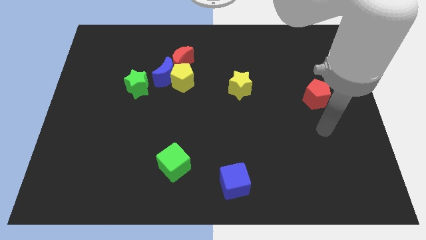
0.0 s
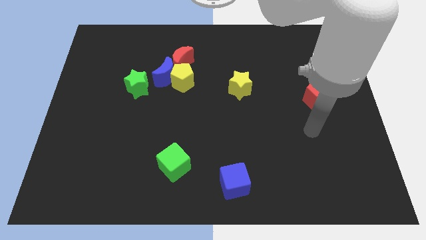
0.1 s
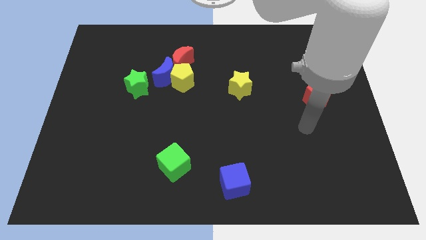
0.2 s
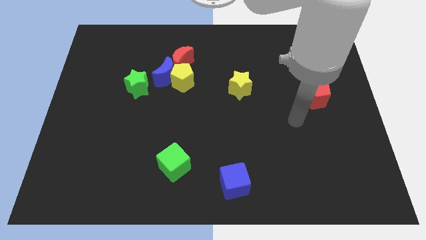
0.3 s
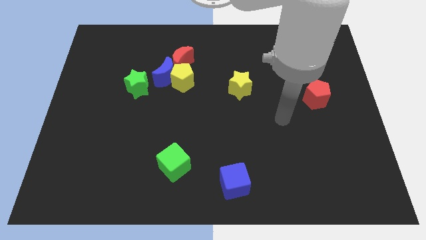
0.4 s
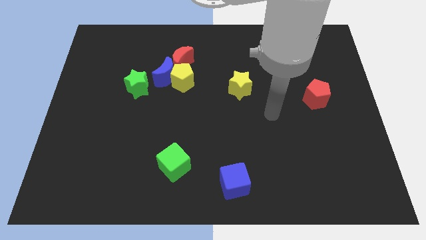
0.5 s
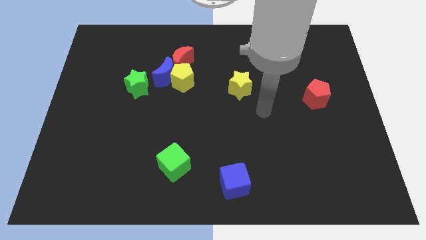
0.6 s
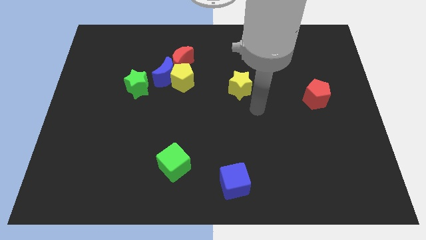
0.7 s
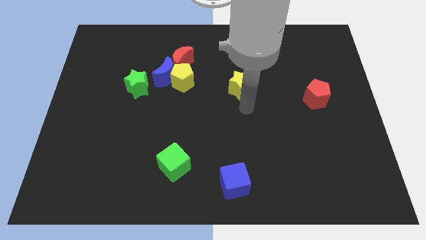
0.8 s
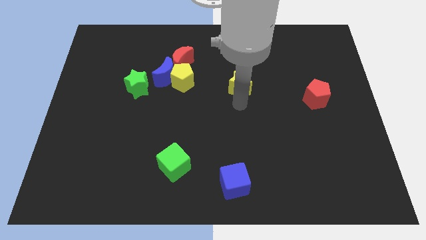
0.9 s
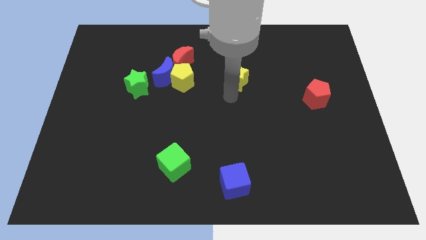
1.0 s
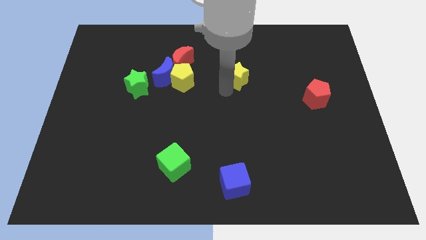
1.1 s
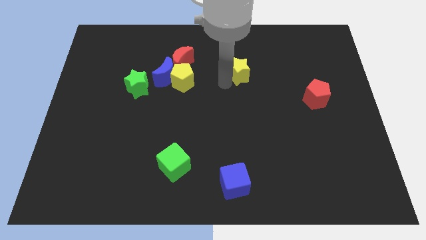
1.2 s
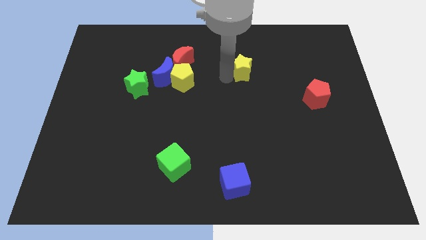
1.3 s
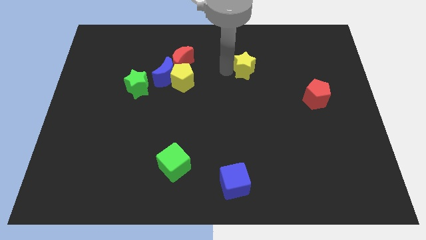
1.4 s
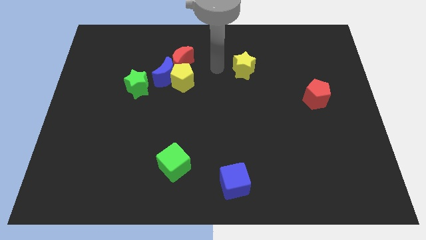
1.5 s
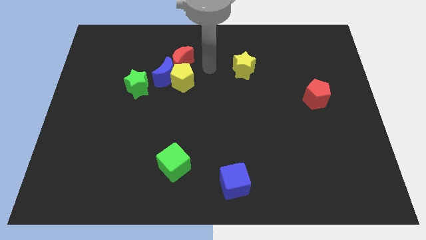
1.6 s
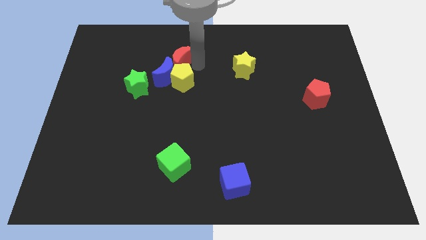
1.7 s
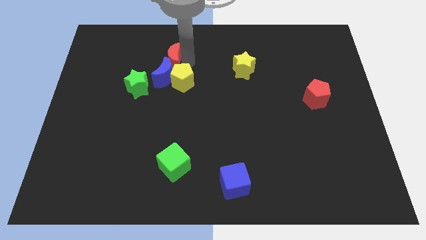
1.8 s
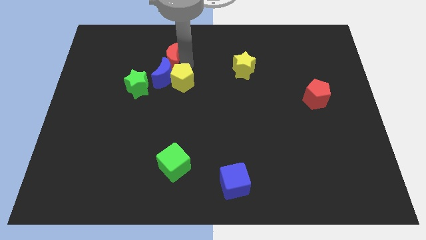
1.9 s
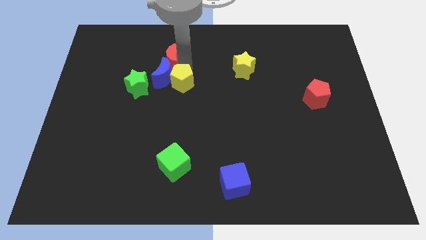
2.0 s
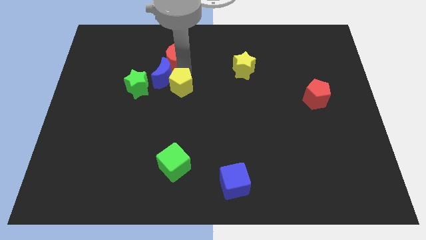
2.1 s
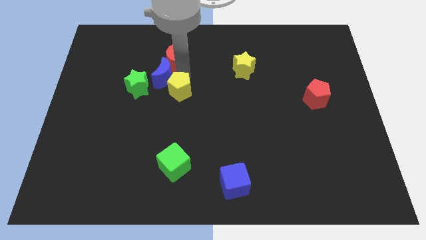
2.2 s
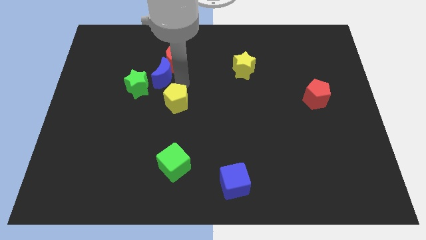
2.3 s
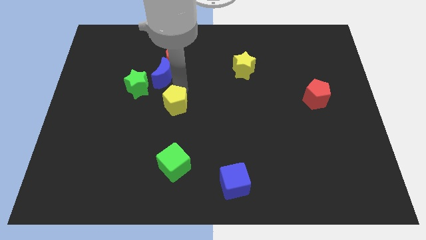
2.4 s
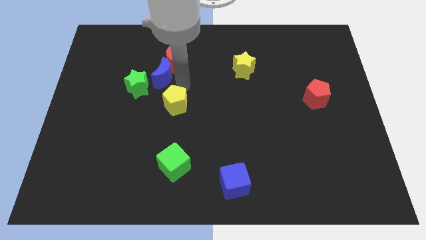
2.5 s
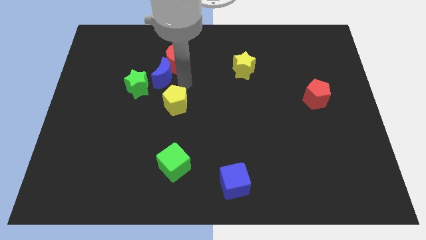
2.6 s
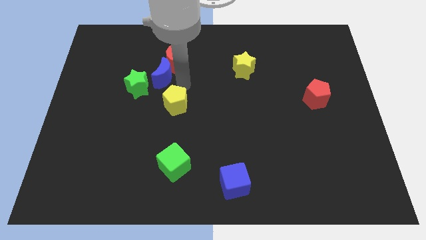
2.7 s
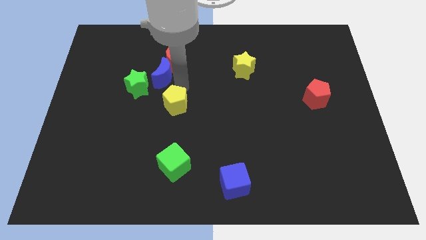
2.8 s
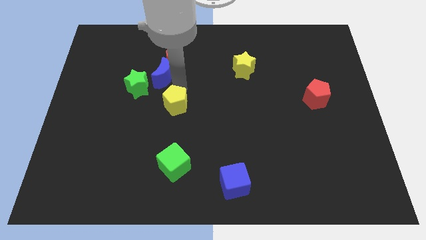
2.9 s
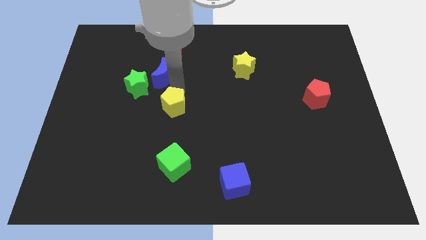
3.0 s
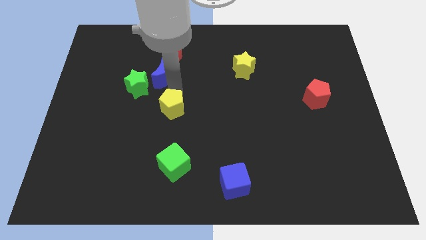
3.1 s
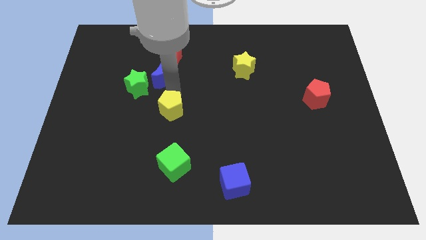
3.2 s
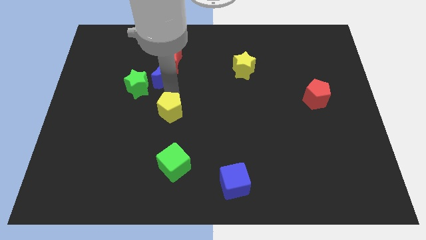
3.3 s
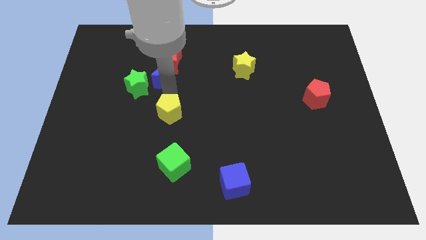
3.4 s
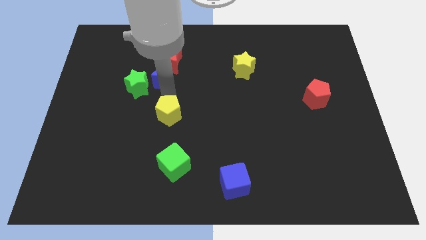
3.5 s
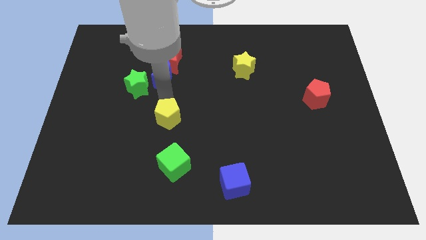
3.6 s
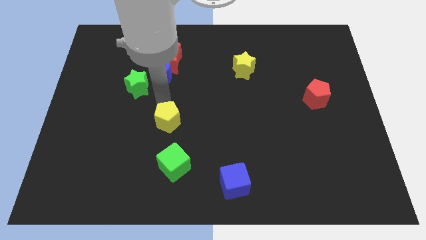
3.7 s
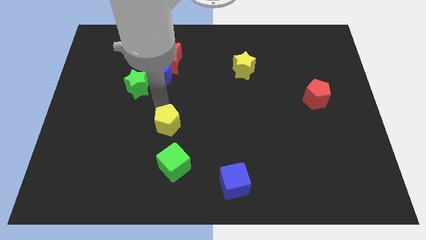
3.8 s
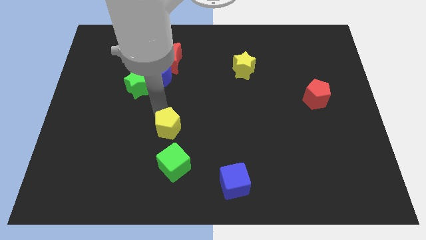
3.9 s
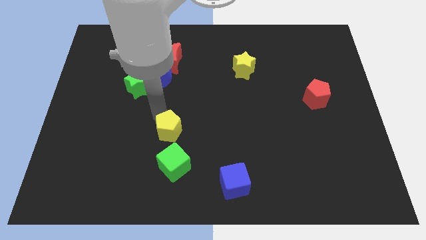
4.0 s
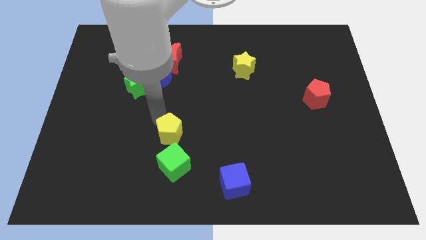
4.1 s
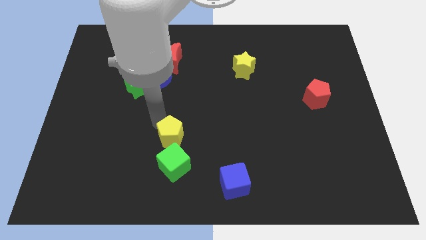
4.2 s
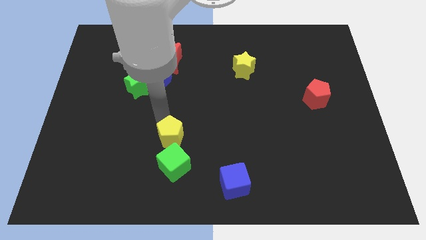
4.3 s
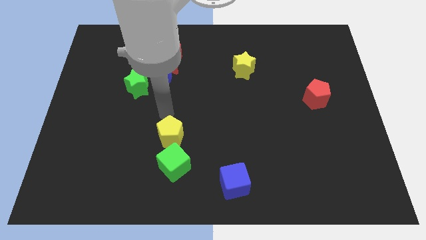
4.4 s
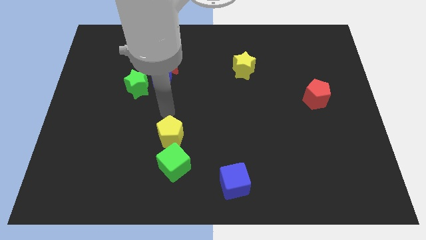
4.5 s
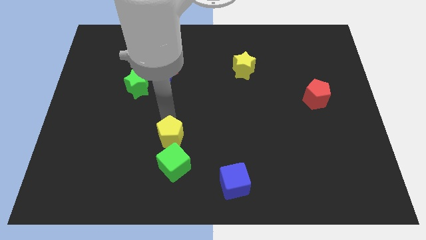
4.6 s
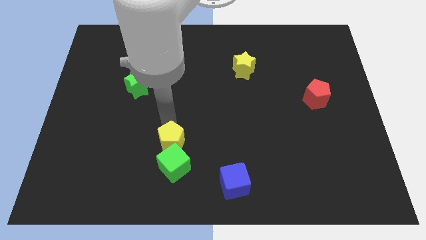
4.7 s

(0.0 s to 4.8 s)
move the yellow pentagon close to the green cube

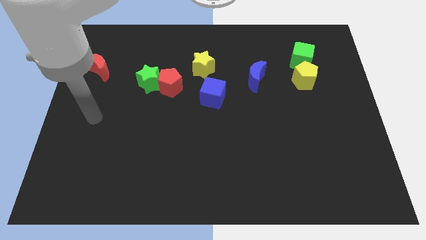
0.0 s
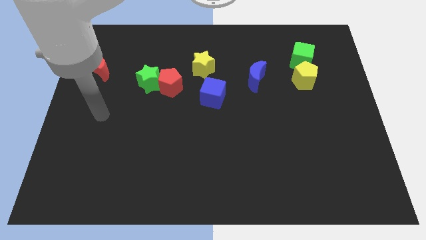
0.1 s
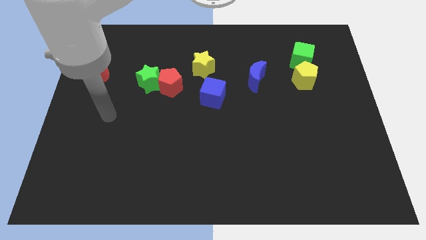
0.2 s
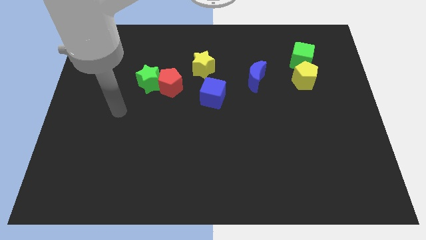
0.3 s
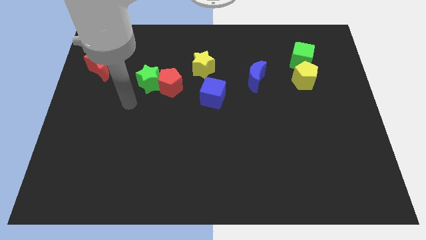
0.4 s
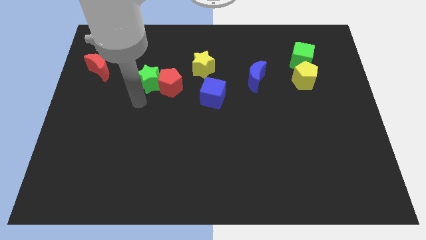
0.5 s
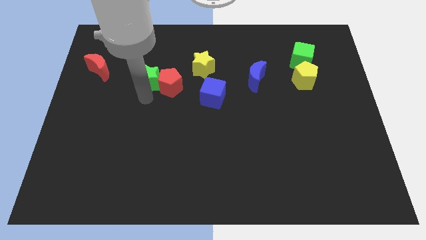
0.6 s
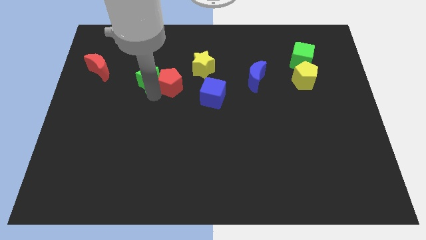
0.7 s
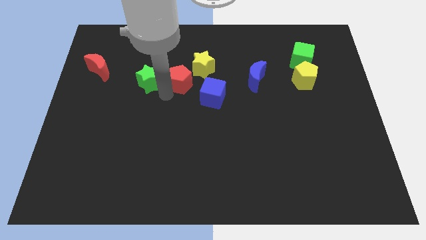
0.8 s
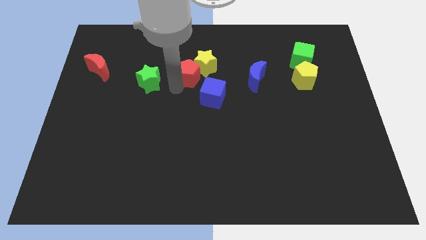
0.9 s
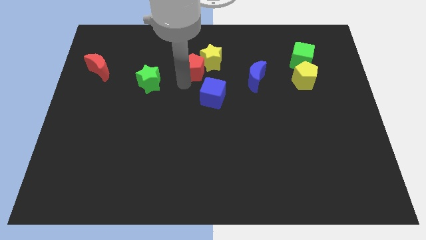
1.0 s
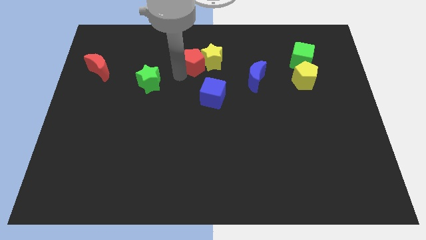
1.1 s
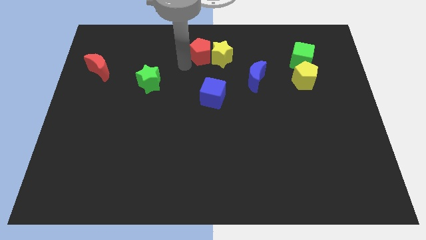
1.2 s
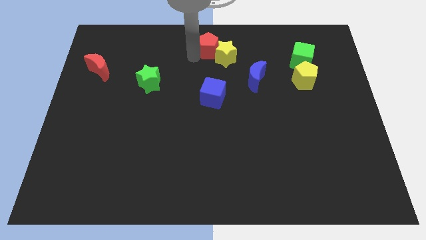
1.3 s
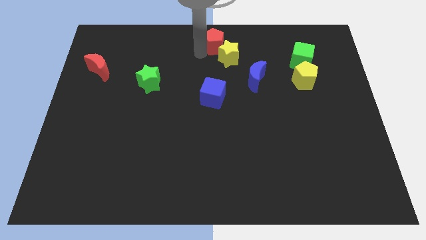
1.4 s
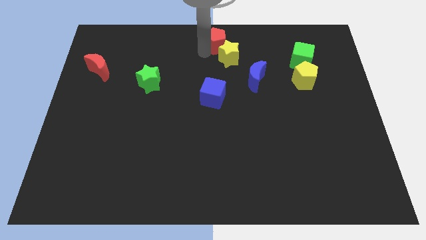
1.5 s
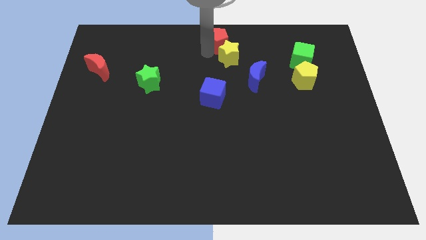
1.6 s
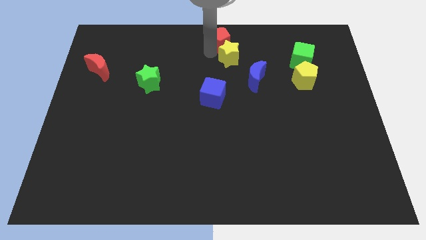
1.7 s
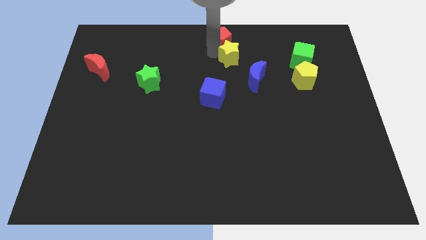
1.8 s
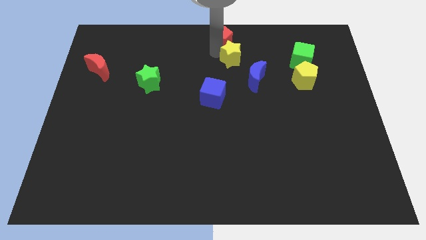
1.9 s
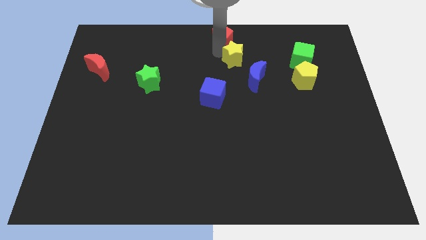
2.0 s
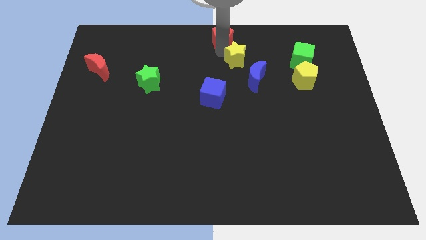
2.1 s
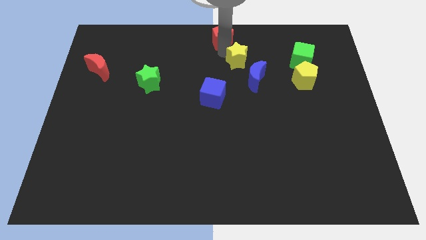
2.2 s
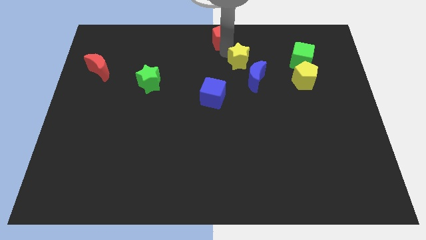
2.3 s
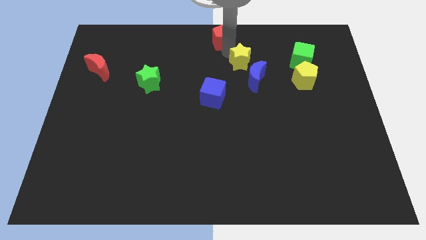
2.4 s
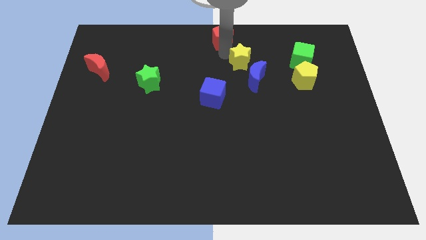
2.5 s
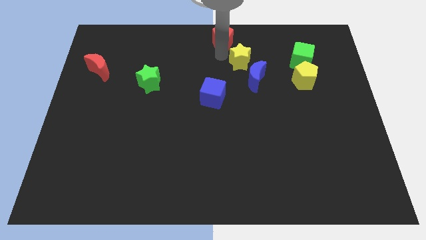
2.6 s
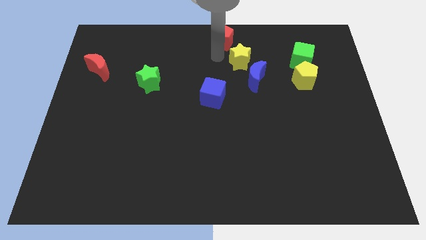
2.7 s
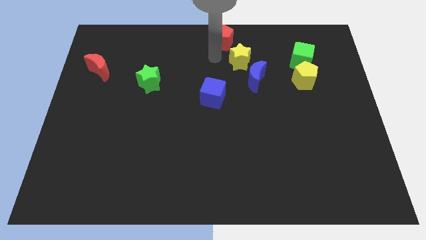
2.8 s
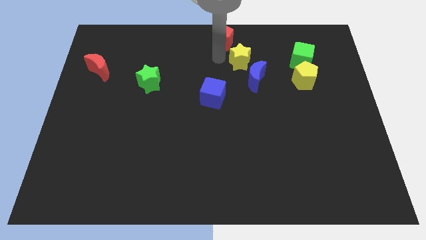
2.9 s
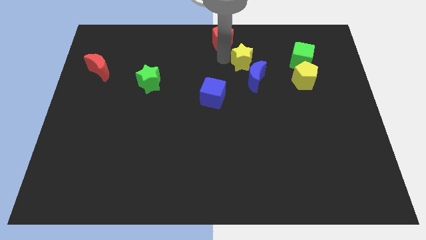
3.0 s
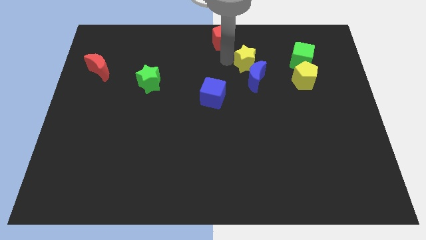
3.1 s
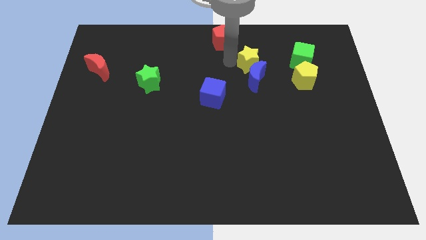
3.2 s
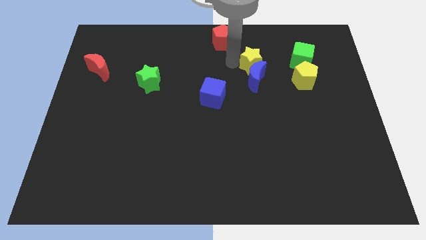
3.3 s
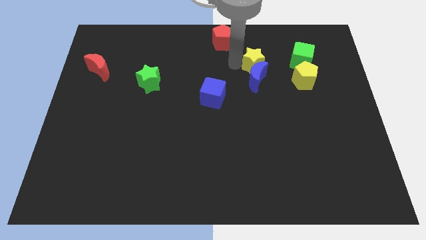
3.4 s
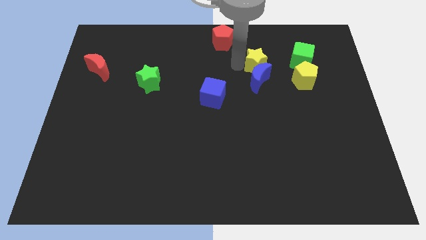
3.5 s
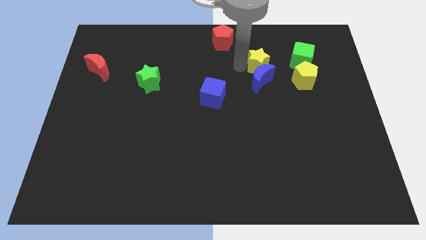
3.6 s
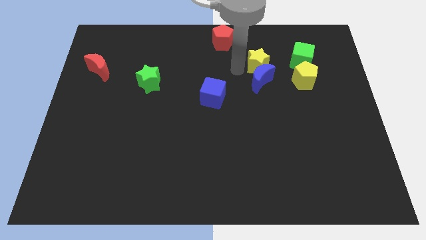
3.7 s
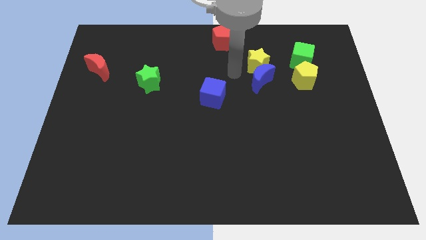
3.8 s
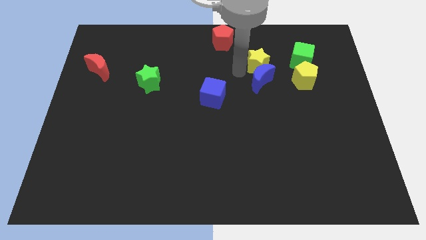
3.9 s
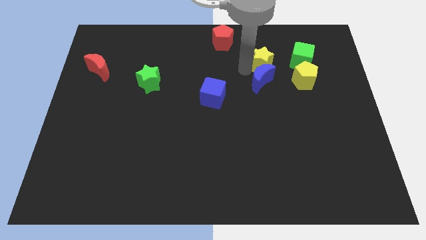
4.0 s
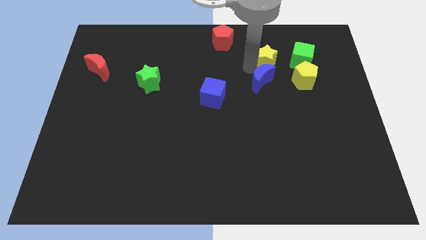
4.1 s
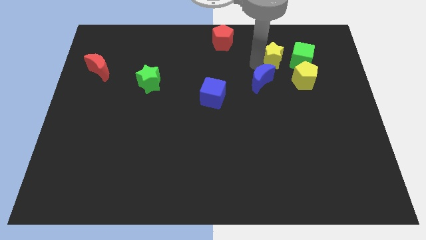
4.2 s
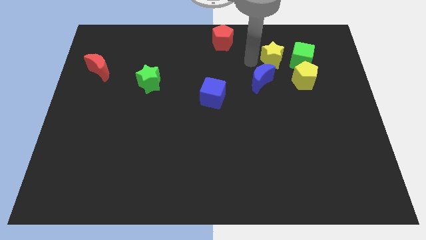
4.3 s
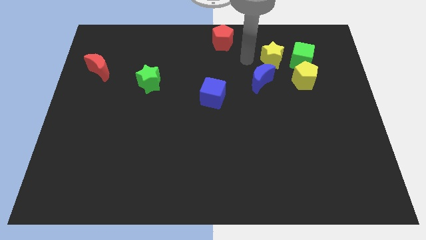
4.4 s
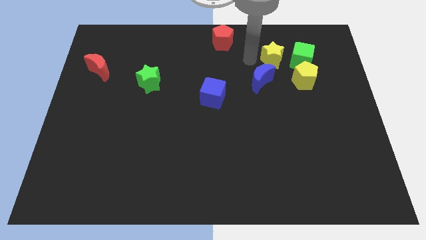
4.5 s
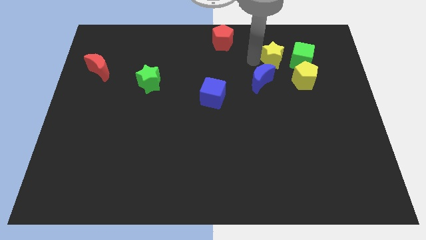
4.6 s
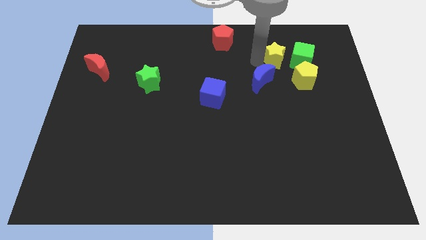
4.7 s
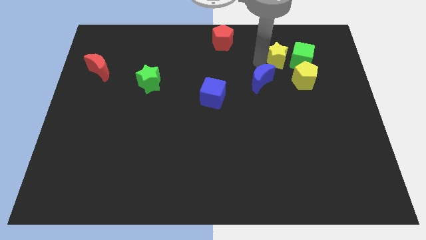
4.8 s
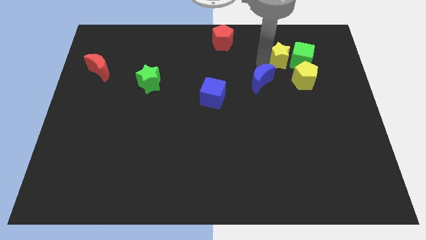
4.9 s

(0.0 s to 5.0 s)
put the yellow star to the green cube
